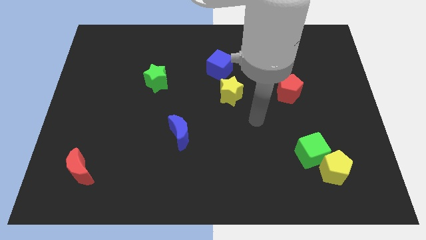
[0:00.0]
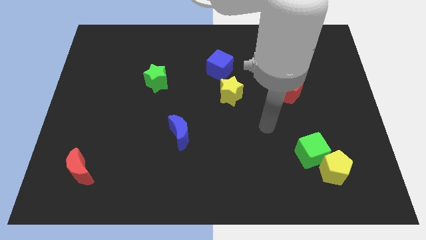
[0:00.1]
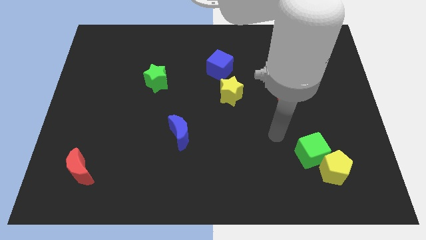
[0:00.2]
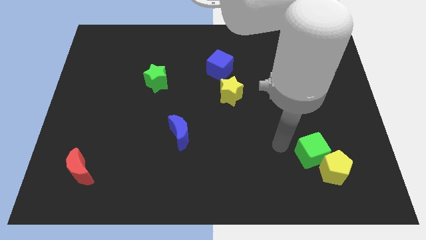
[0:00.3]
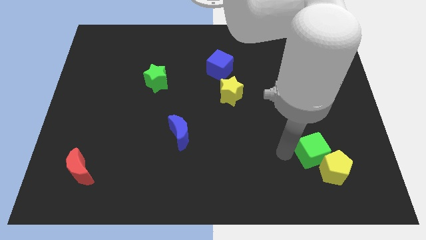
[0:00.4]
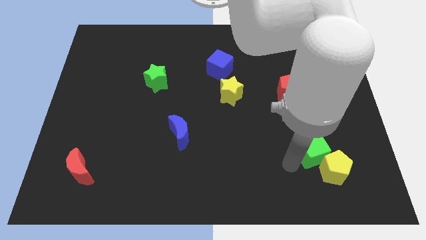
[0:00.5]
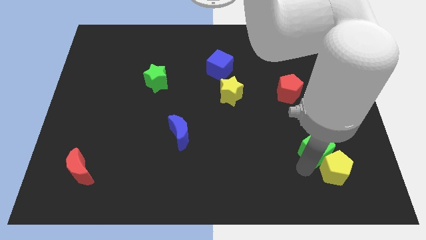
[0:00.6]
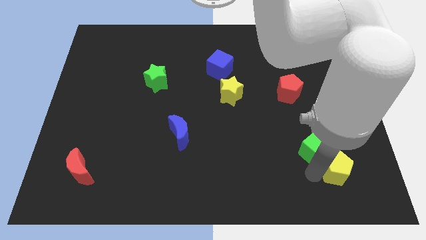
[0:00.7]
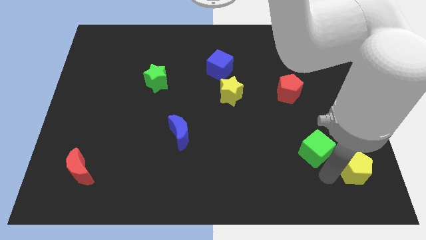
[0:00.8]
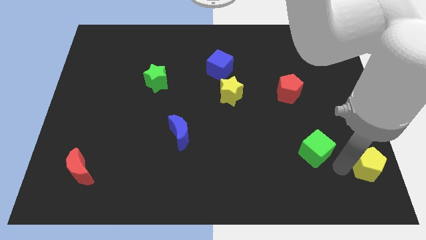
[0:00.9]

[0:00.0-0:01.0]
separate the green cube from the yellow pentagon

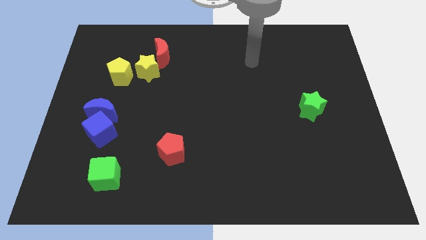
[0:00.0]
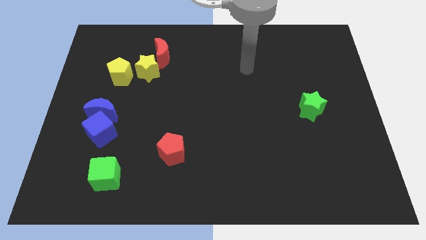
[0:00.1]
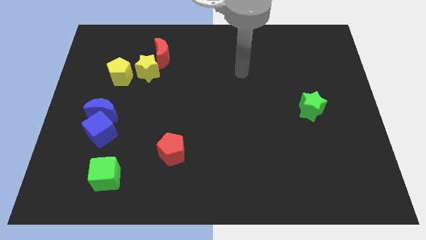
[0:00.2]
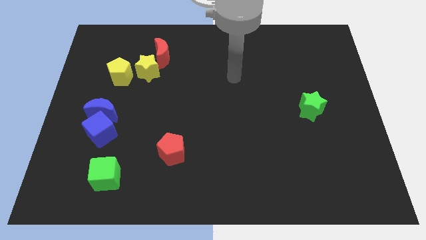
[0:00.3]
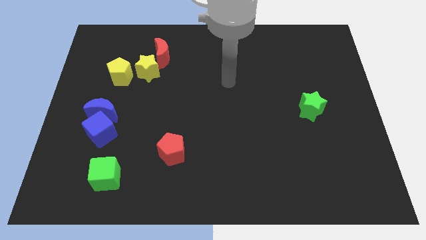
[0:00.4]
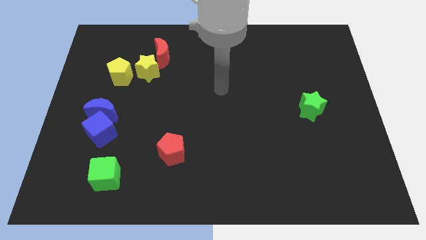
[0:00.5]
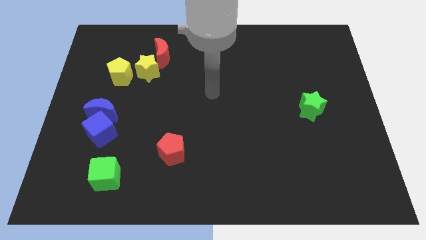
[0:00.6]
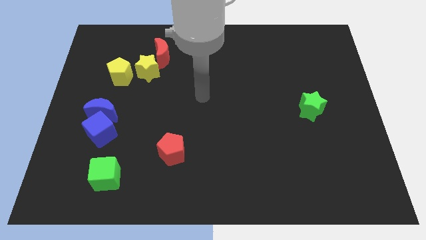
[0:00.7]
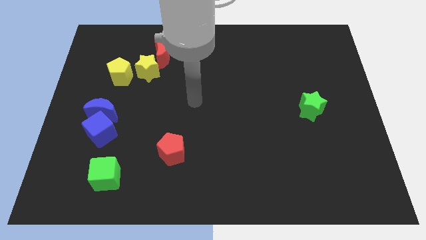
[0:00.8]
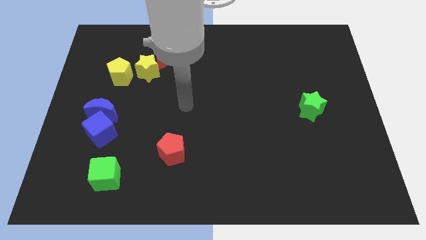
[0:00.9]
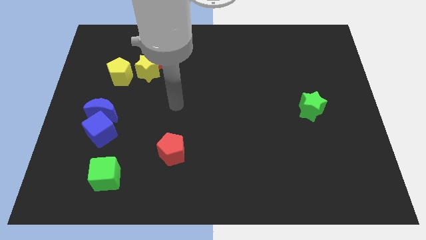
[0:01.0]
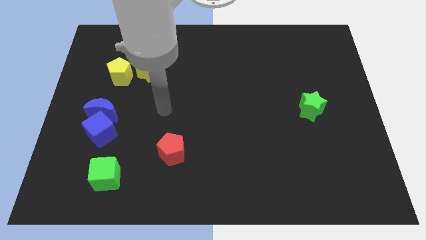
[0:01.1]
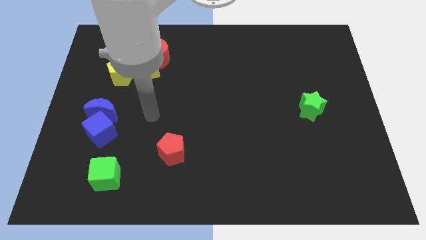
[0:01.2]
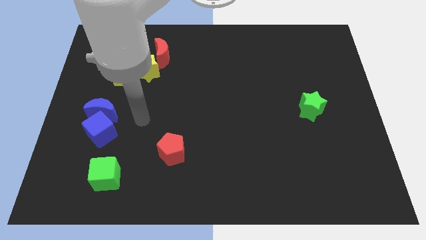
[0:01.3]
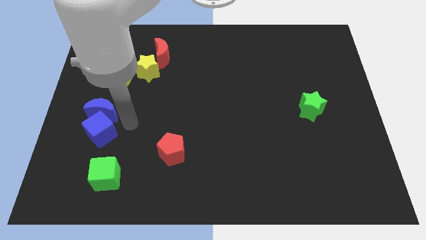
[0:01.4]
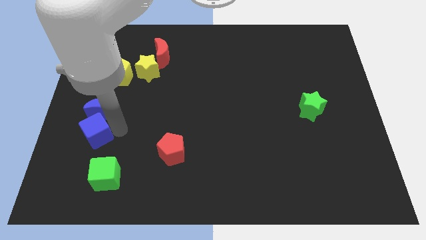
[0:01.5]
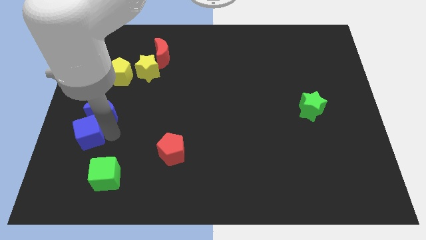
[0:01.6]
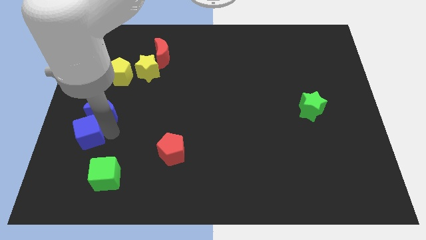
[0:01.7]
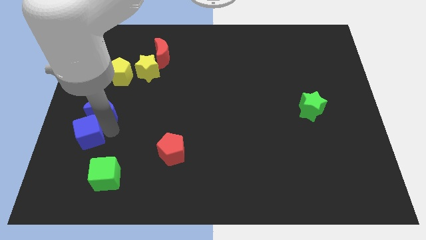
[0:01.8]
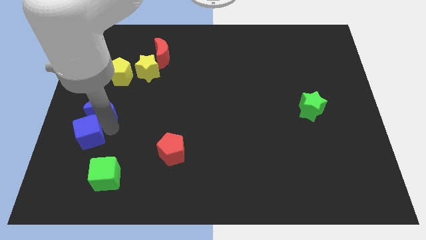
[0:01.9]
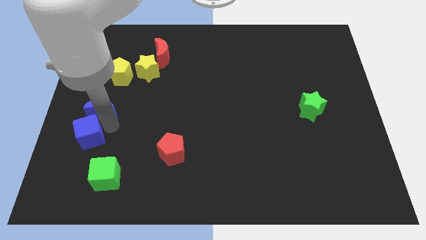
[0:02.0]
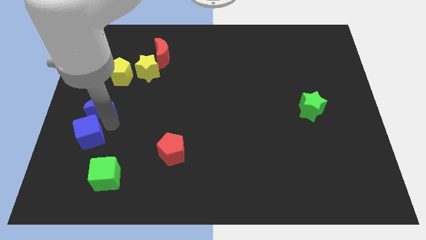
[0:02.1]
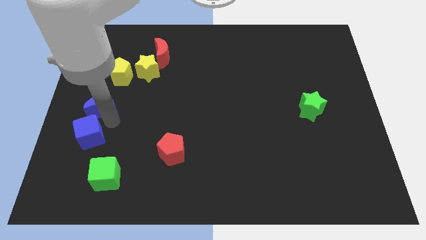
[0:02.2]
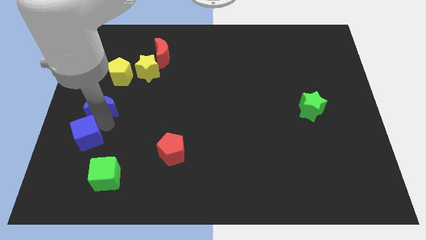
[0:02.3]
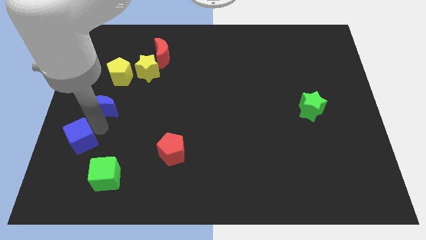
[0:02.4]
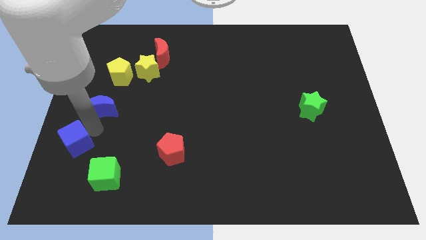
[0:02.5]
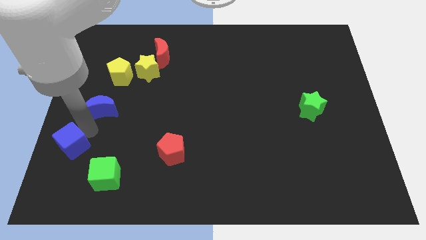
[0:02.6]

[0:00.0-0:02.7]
move the blue moon away from the blue cube

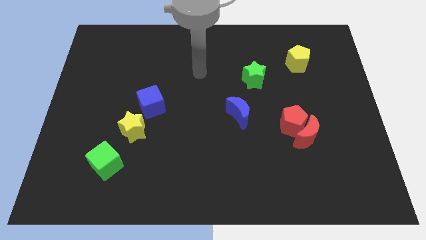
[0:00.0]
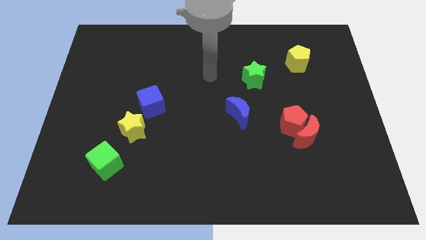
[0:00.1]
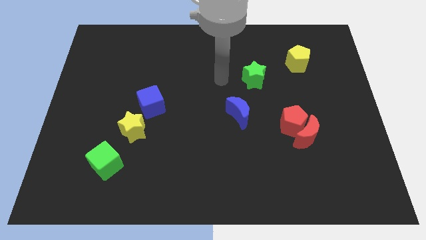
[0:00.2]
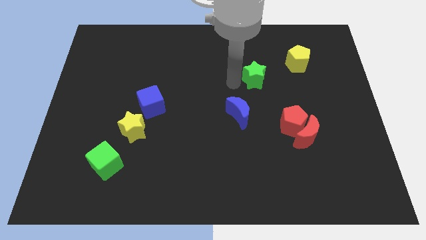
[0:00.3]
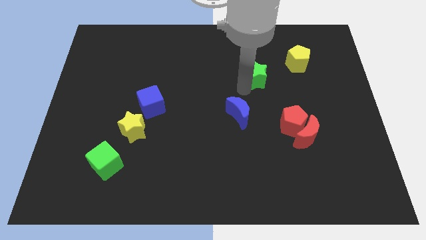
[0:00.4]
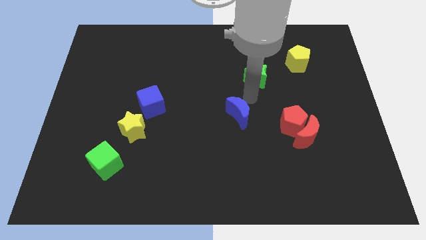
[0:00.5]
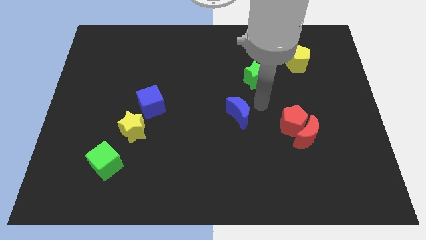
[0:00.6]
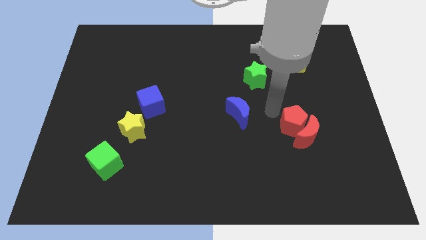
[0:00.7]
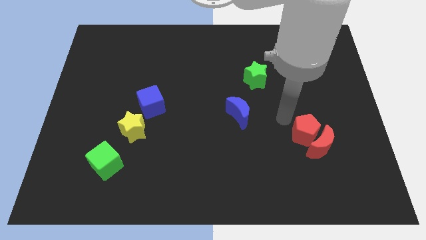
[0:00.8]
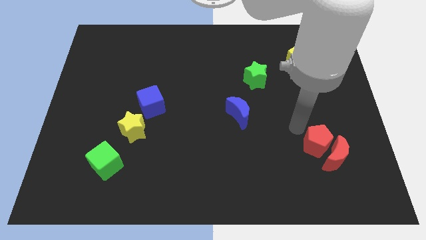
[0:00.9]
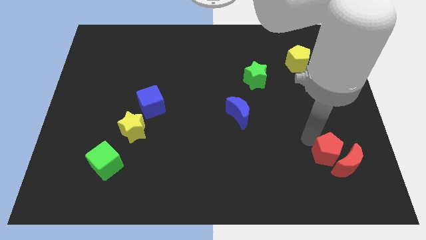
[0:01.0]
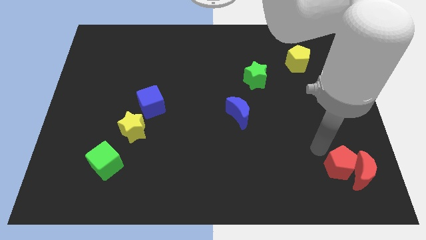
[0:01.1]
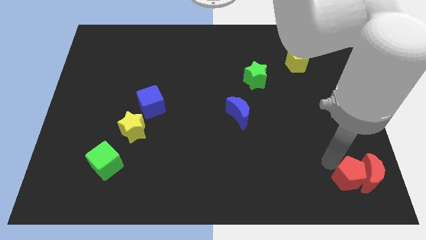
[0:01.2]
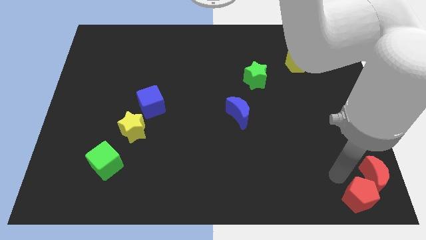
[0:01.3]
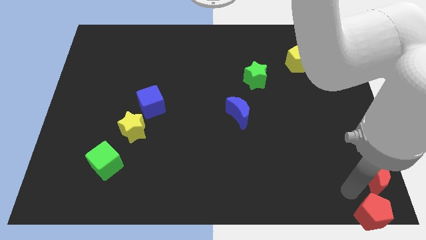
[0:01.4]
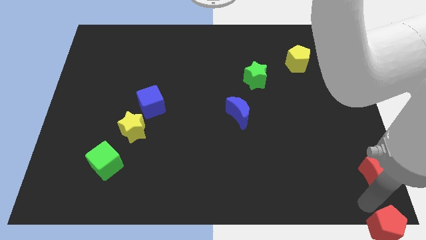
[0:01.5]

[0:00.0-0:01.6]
separate the red moon from the red pentagon

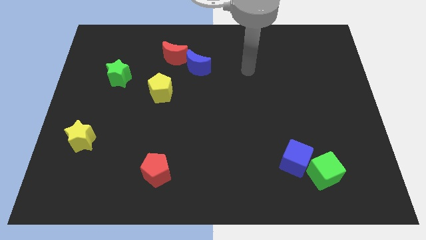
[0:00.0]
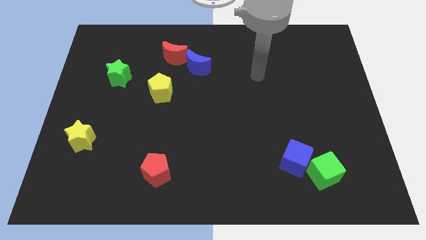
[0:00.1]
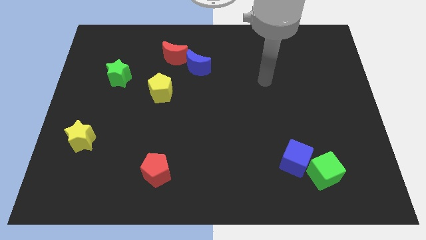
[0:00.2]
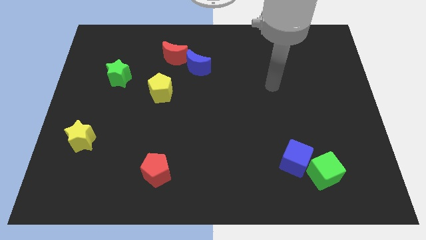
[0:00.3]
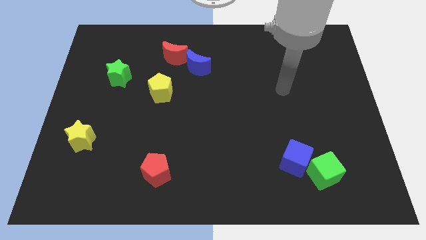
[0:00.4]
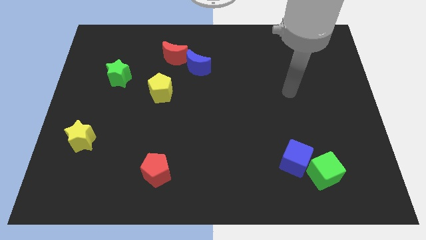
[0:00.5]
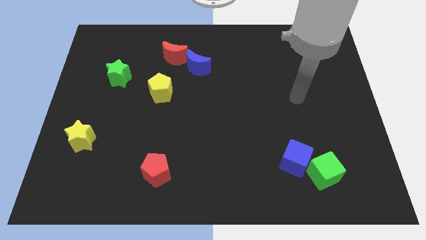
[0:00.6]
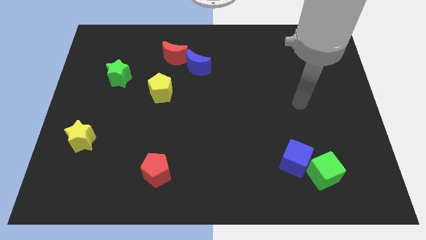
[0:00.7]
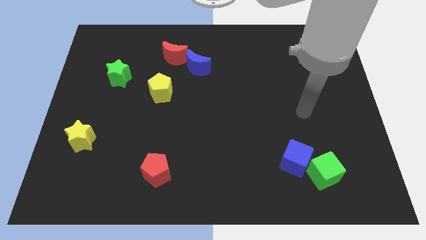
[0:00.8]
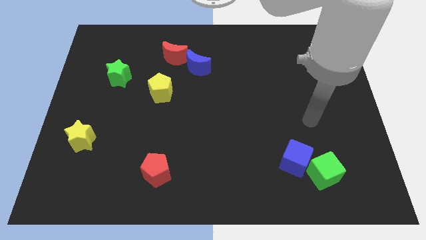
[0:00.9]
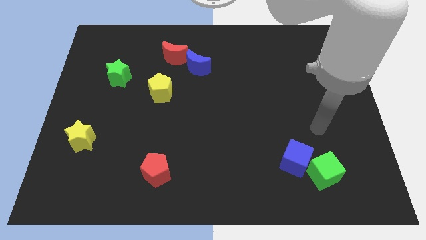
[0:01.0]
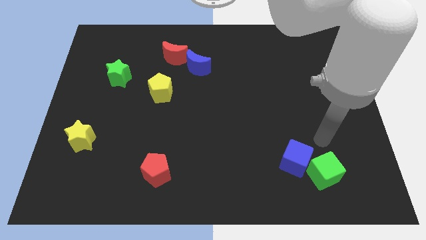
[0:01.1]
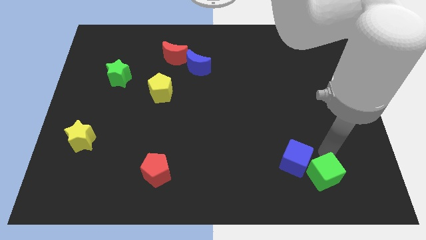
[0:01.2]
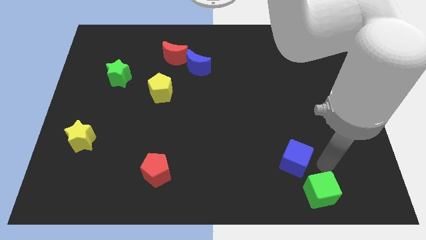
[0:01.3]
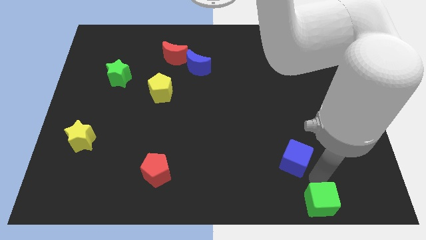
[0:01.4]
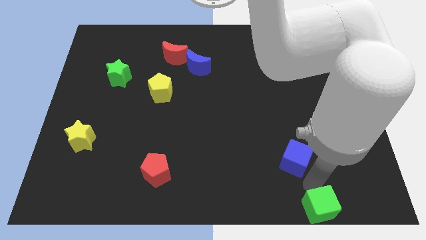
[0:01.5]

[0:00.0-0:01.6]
move the blue cube away from the green cube

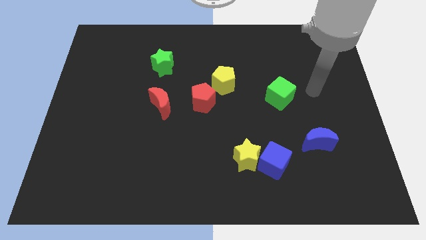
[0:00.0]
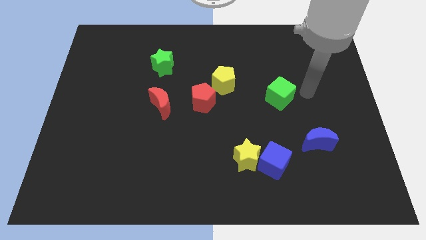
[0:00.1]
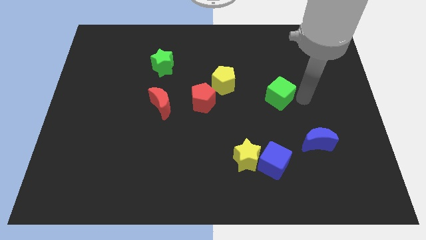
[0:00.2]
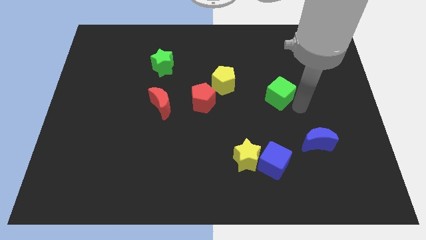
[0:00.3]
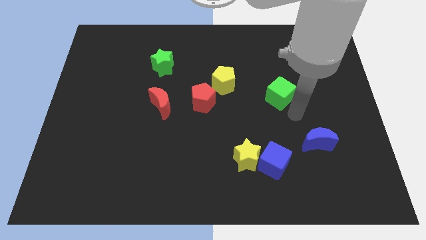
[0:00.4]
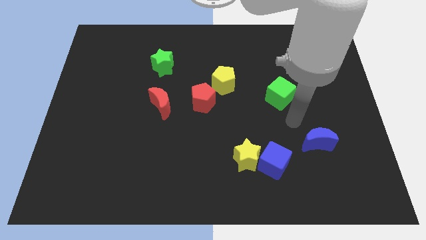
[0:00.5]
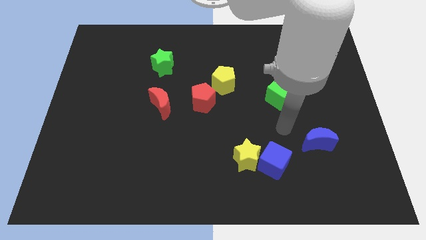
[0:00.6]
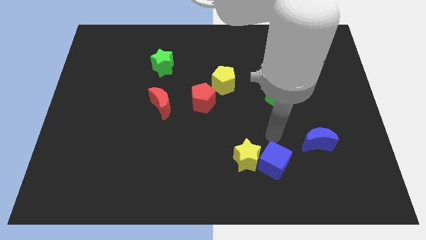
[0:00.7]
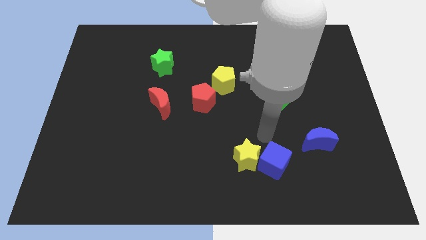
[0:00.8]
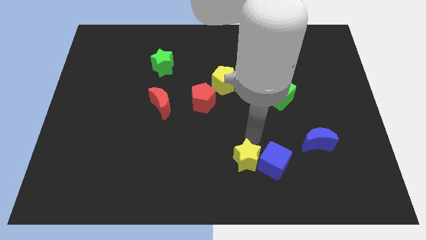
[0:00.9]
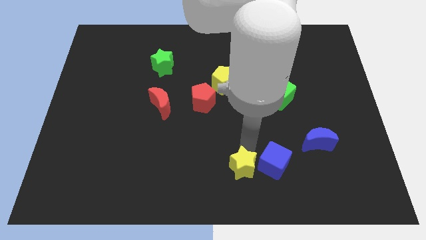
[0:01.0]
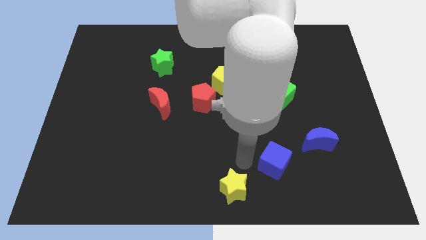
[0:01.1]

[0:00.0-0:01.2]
separate the blue cube from the yellow star

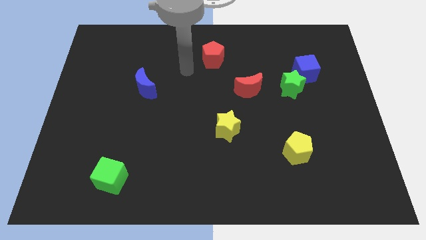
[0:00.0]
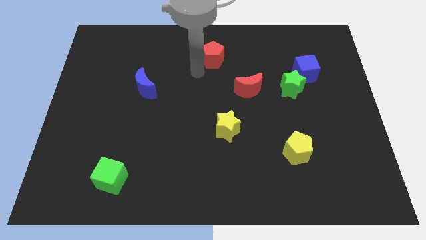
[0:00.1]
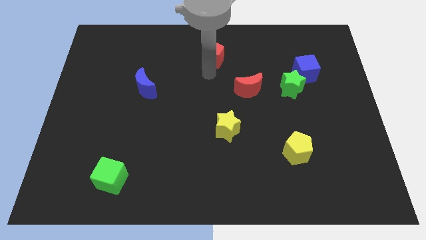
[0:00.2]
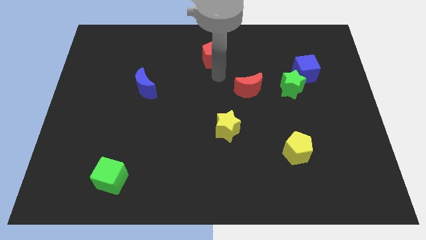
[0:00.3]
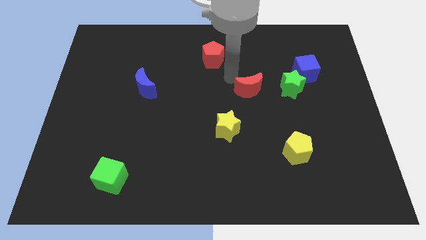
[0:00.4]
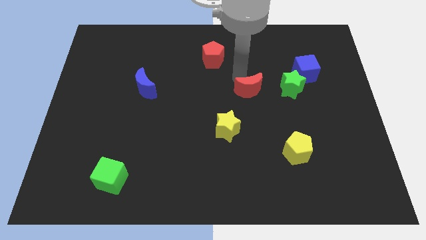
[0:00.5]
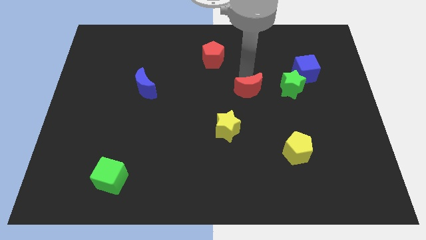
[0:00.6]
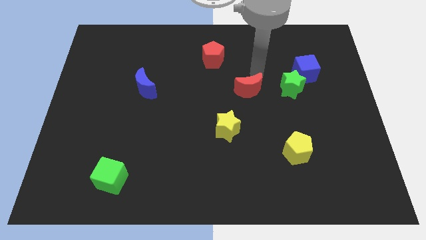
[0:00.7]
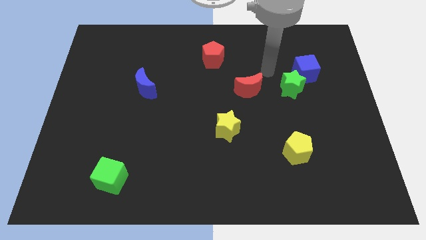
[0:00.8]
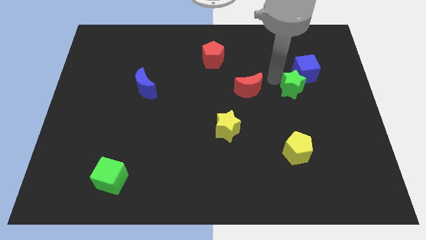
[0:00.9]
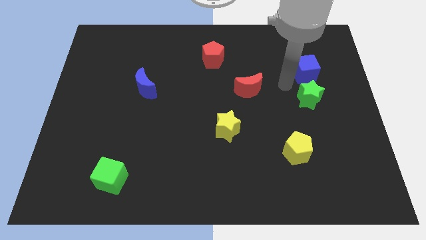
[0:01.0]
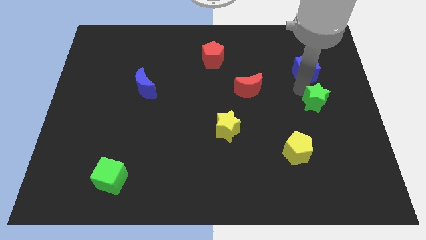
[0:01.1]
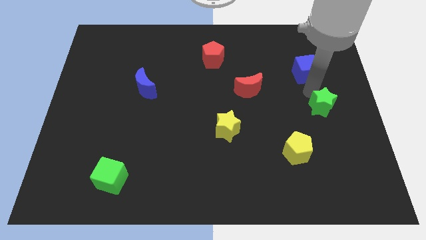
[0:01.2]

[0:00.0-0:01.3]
separate the blue cube from the green star
